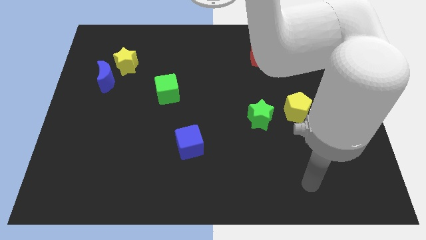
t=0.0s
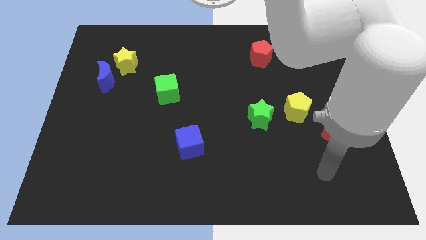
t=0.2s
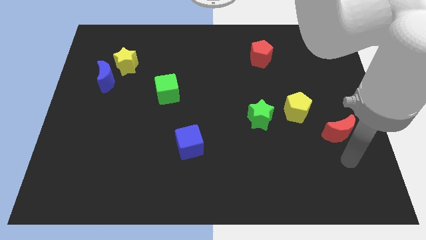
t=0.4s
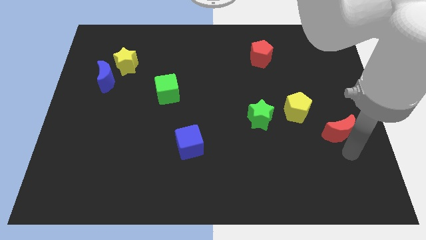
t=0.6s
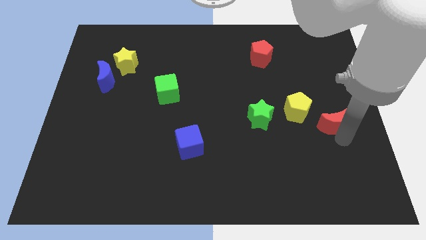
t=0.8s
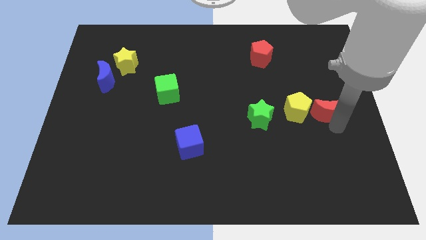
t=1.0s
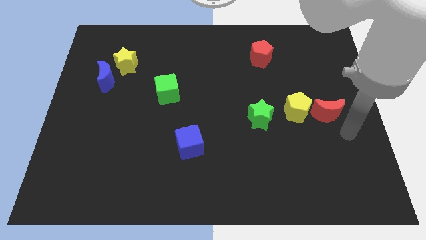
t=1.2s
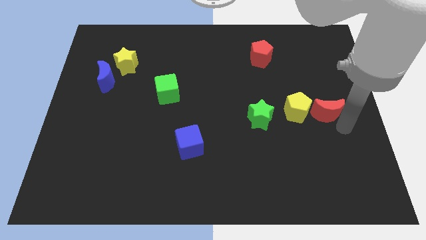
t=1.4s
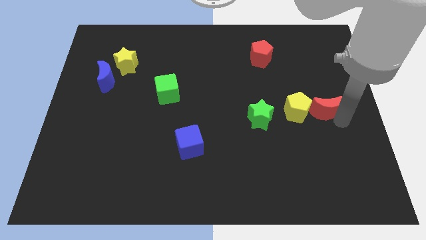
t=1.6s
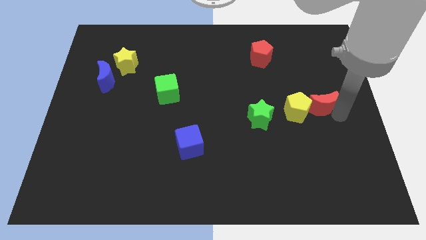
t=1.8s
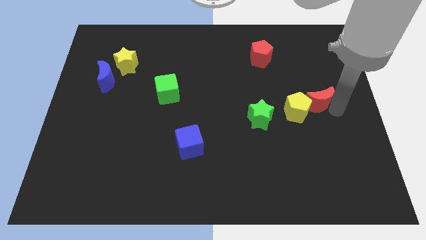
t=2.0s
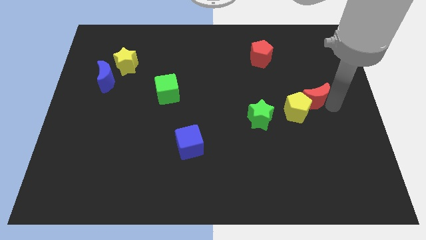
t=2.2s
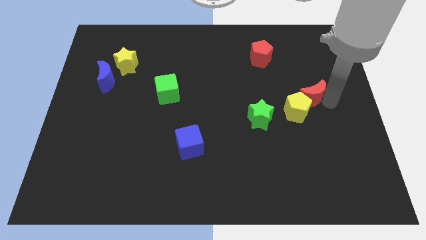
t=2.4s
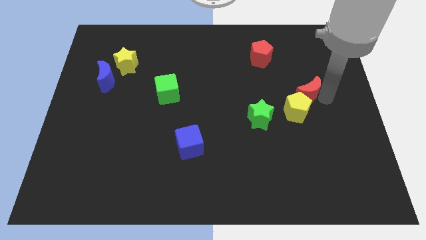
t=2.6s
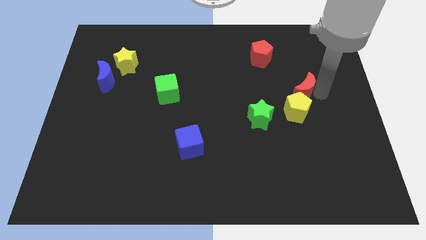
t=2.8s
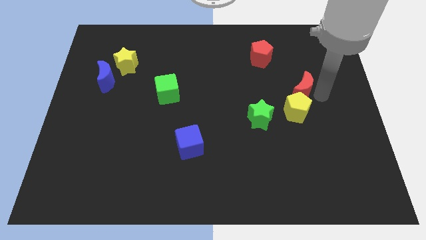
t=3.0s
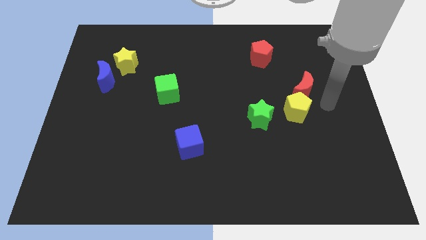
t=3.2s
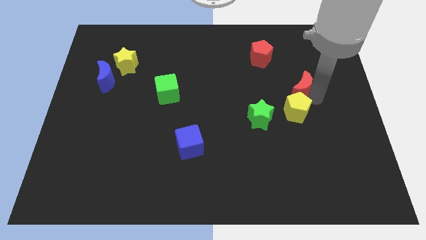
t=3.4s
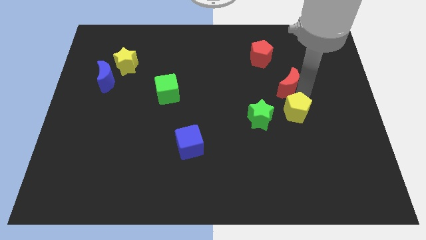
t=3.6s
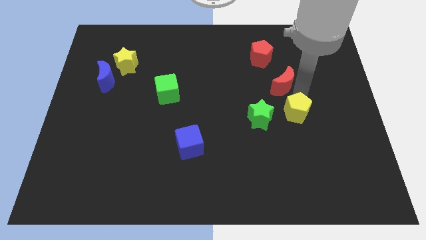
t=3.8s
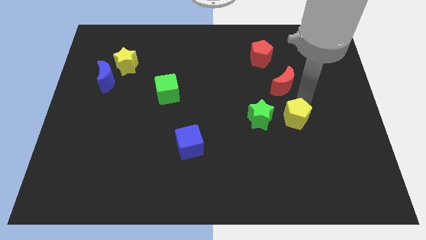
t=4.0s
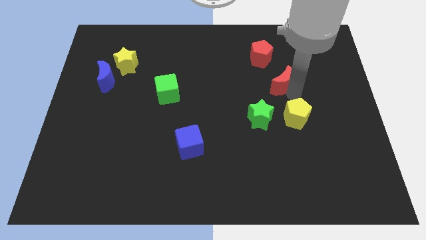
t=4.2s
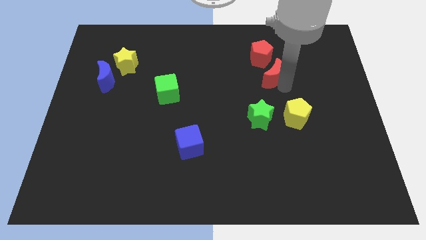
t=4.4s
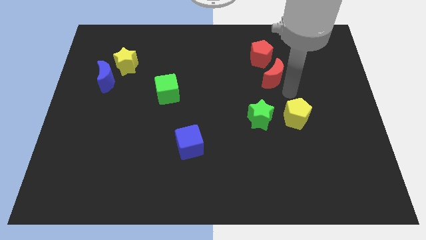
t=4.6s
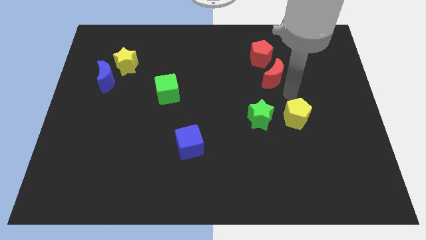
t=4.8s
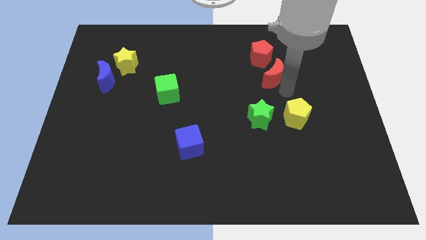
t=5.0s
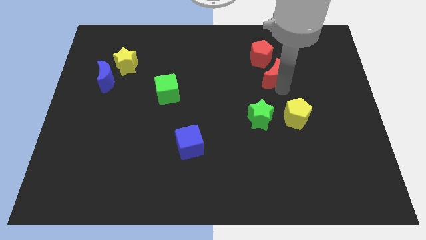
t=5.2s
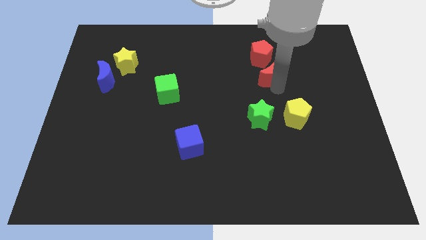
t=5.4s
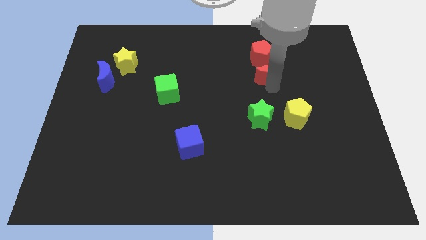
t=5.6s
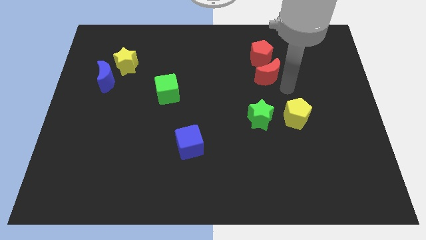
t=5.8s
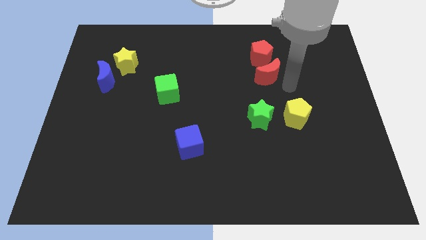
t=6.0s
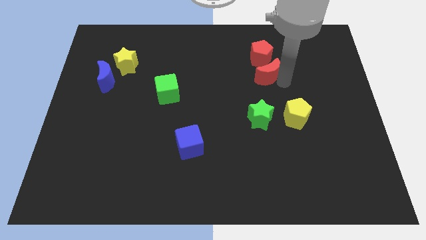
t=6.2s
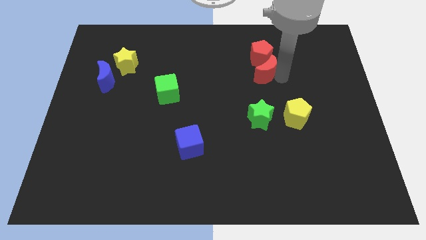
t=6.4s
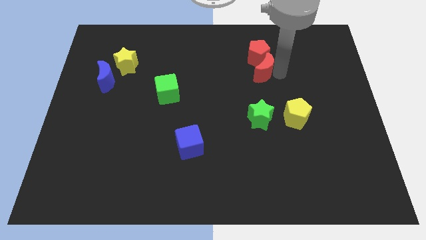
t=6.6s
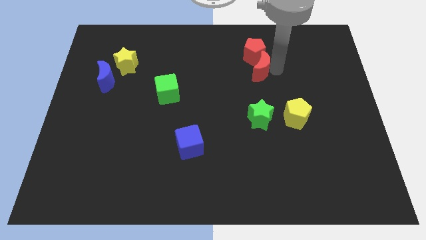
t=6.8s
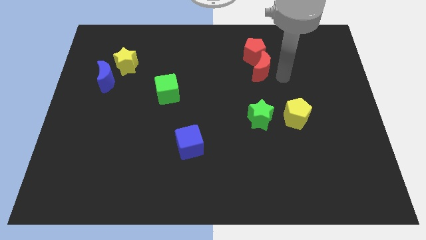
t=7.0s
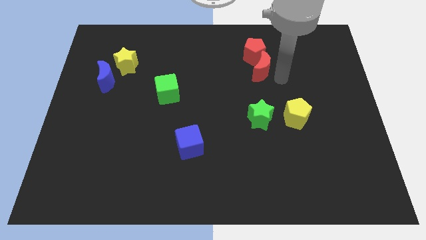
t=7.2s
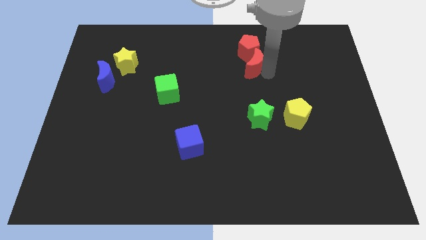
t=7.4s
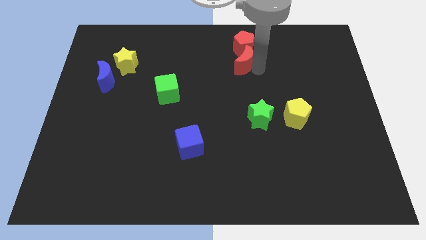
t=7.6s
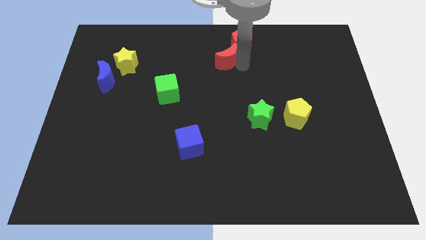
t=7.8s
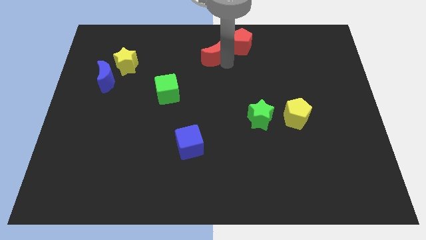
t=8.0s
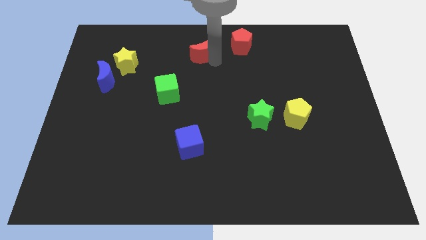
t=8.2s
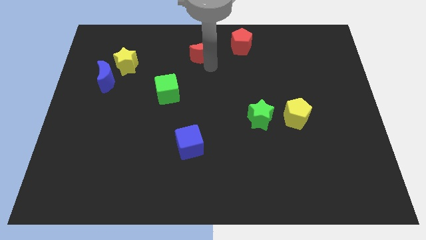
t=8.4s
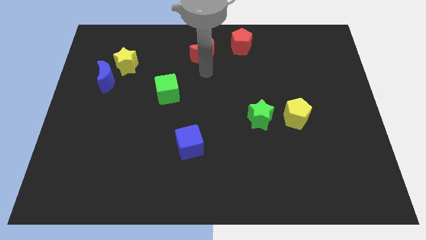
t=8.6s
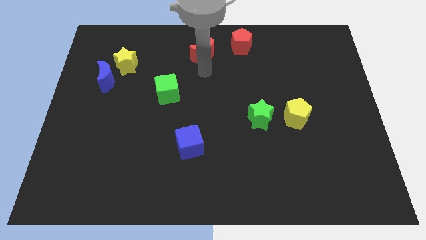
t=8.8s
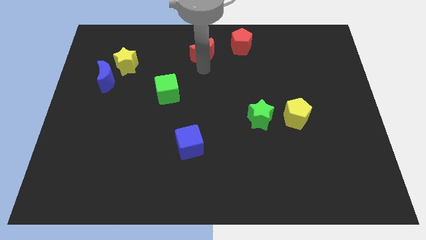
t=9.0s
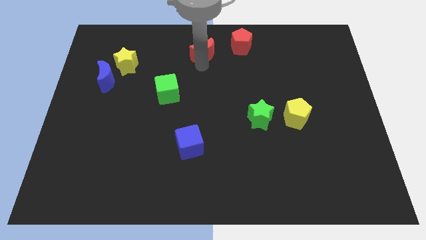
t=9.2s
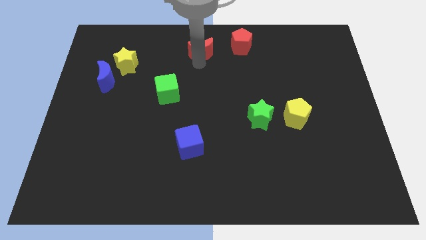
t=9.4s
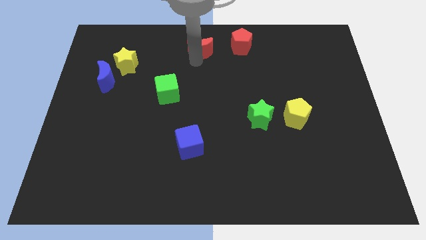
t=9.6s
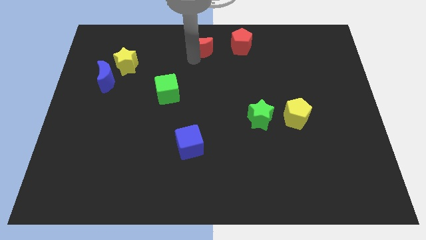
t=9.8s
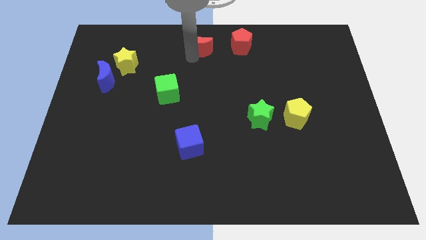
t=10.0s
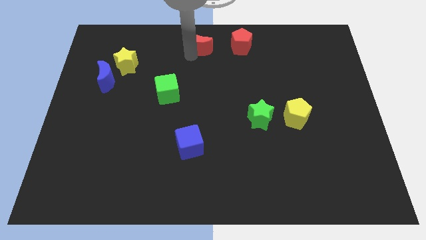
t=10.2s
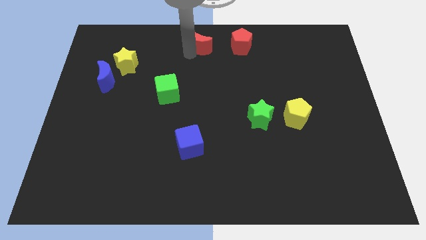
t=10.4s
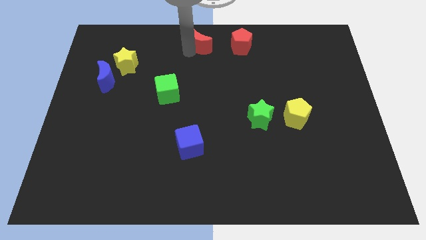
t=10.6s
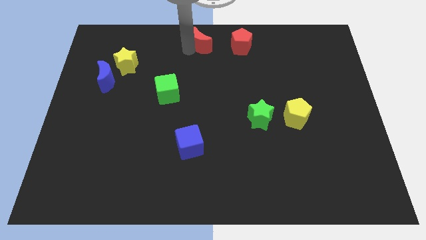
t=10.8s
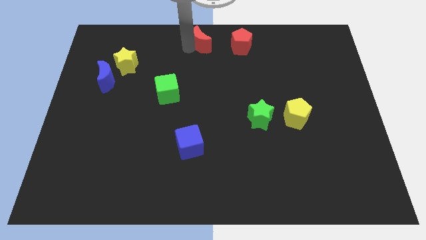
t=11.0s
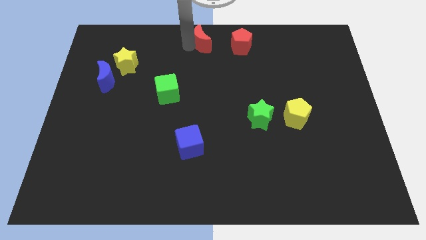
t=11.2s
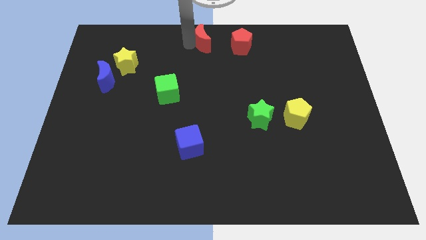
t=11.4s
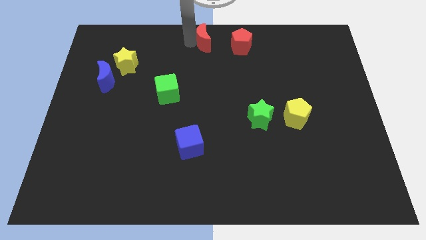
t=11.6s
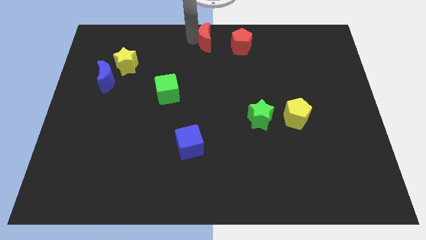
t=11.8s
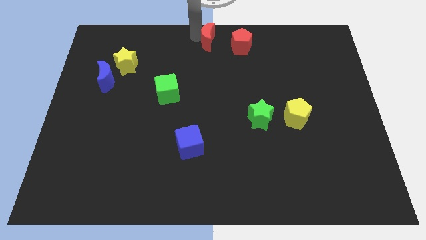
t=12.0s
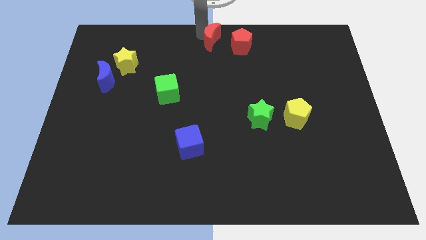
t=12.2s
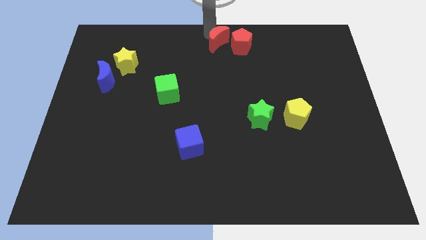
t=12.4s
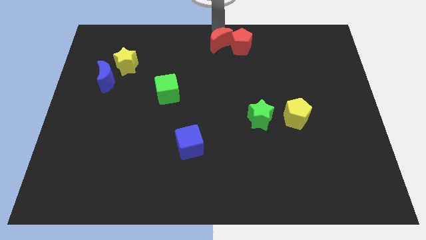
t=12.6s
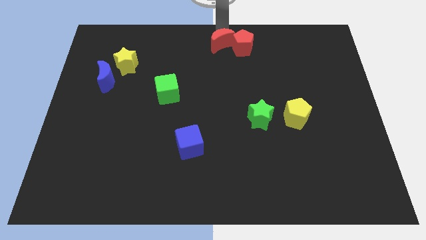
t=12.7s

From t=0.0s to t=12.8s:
slide the red moon just left of the red pentagon
